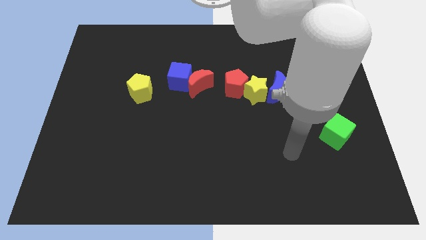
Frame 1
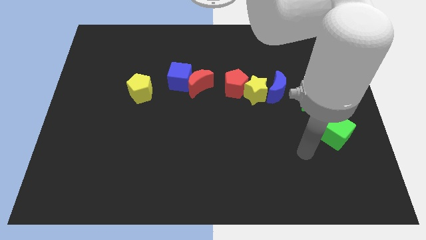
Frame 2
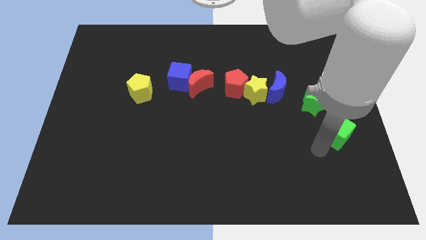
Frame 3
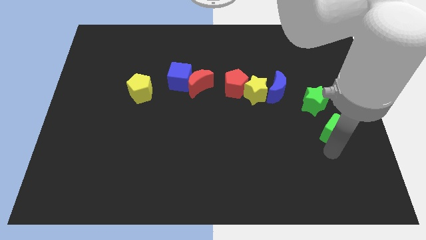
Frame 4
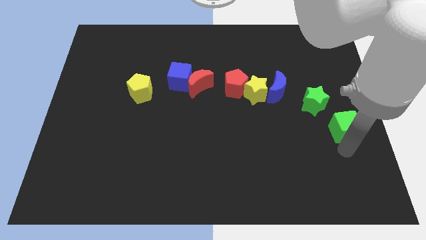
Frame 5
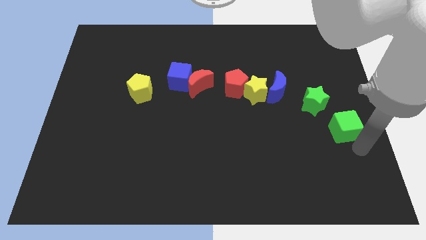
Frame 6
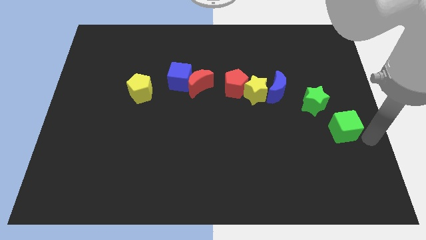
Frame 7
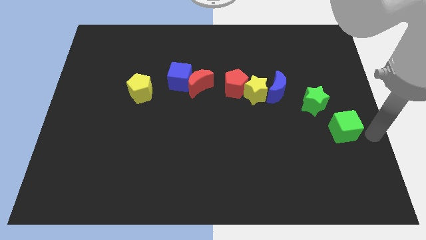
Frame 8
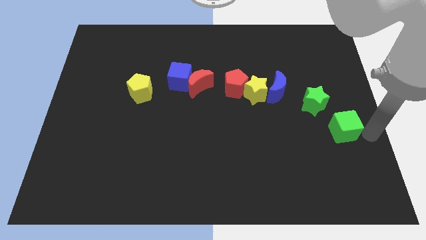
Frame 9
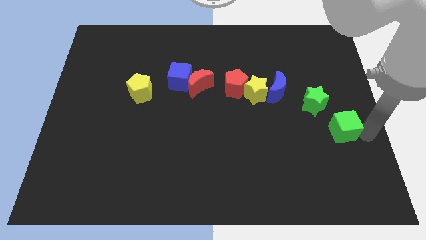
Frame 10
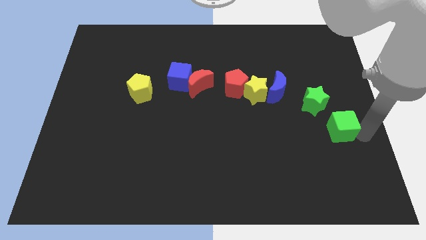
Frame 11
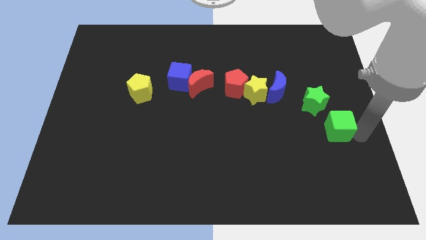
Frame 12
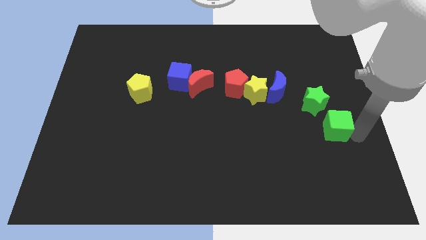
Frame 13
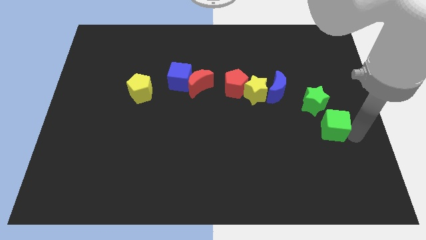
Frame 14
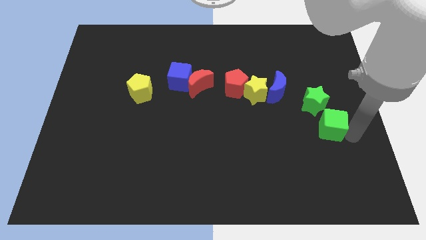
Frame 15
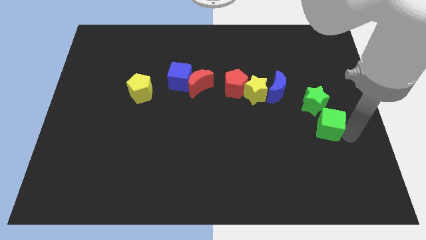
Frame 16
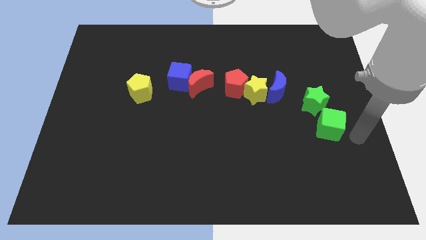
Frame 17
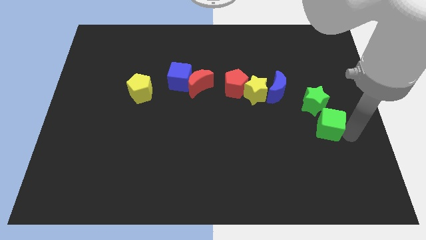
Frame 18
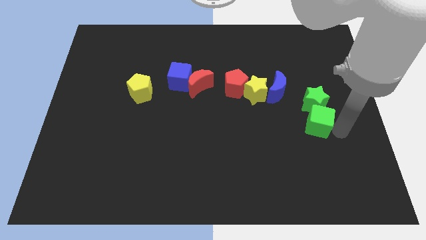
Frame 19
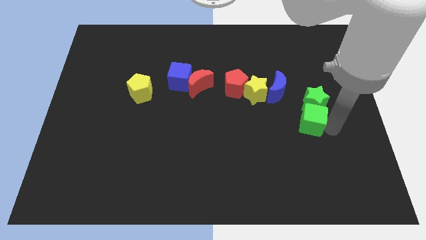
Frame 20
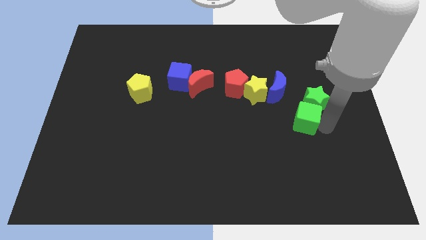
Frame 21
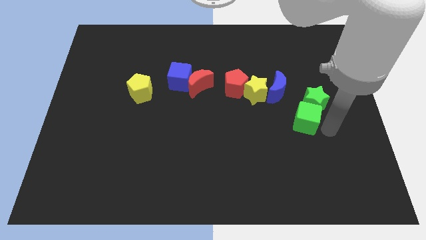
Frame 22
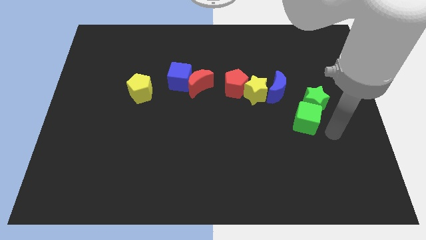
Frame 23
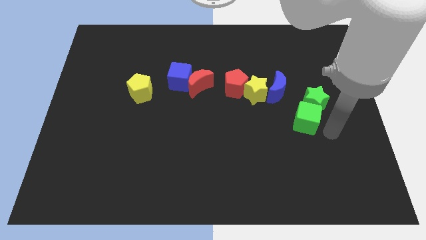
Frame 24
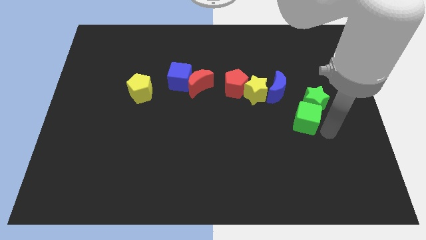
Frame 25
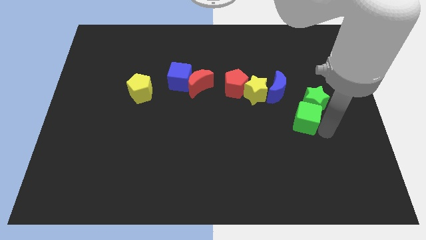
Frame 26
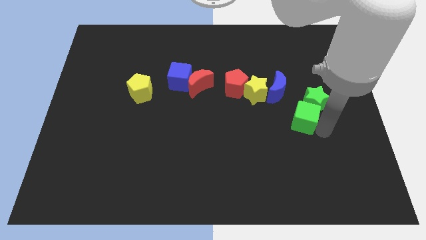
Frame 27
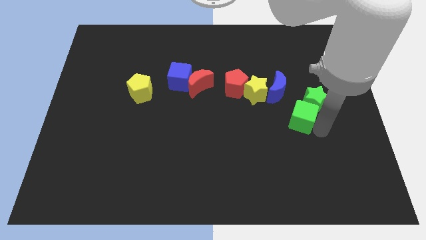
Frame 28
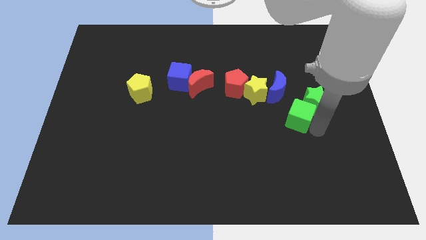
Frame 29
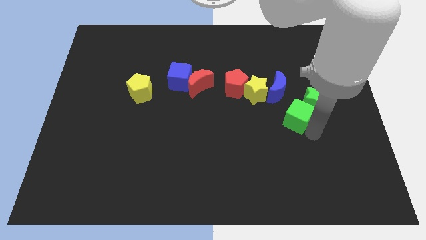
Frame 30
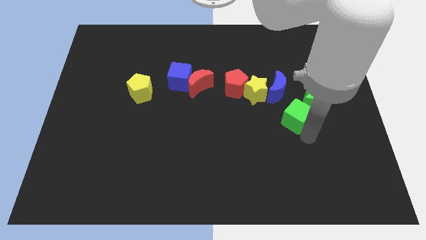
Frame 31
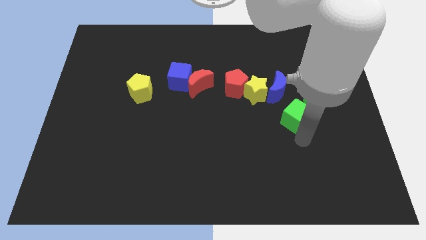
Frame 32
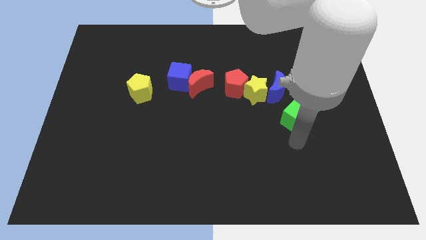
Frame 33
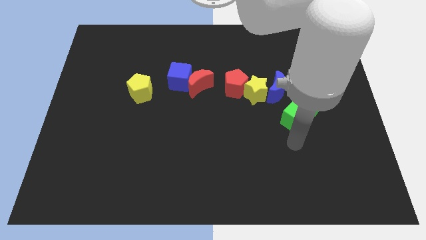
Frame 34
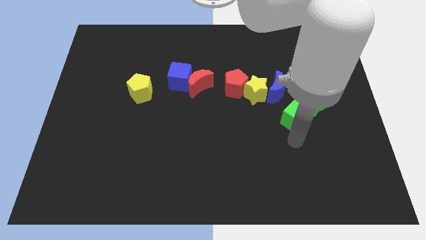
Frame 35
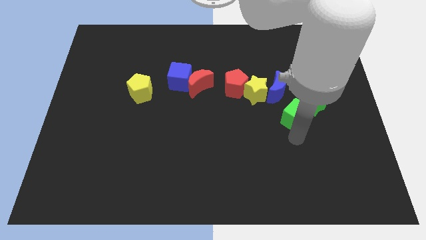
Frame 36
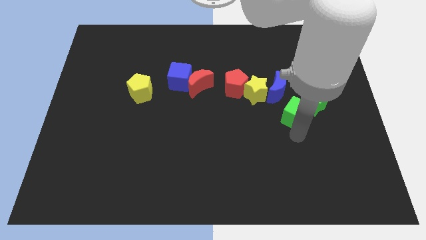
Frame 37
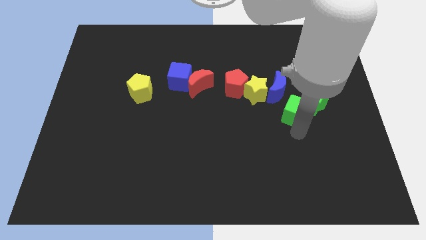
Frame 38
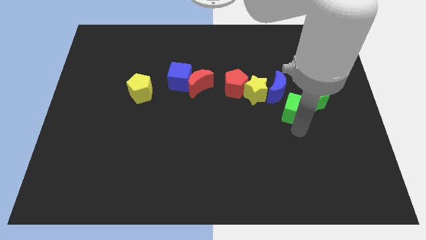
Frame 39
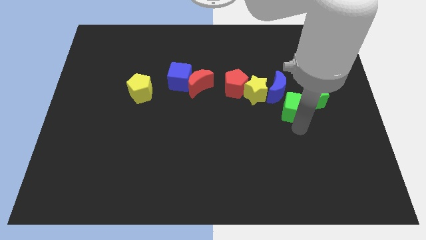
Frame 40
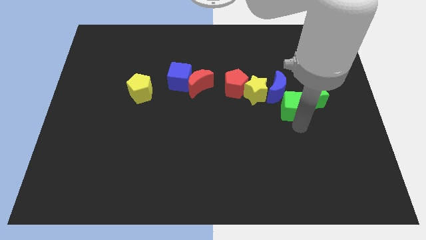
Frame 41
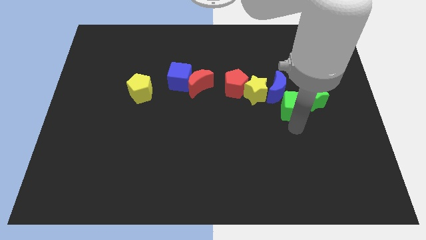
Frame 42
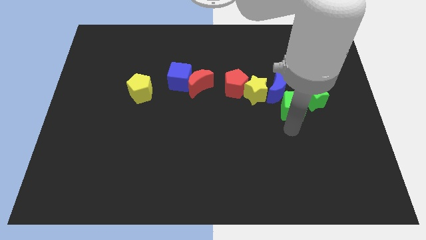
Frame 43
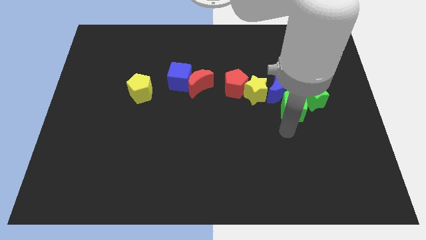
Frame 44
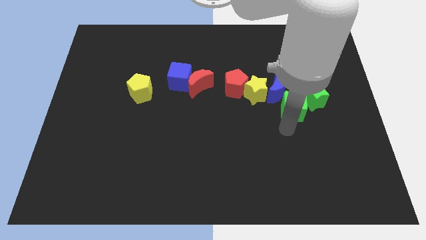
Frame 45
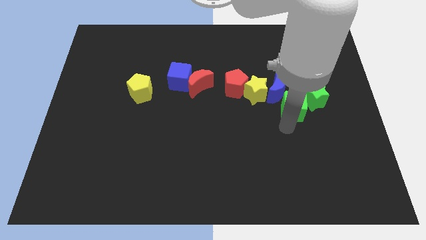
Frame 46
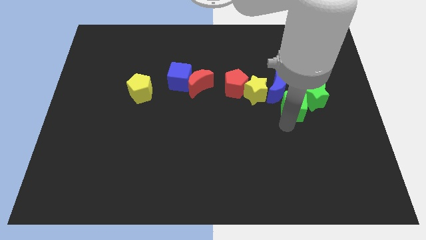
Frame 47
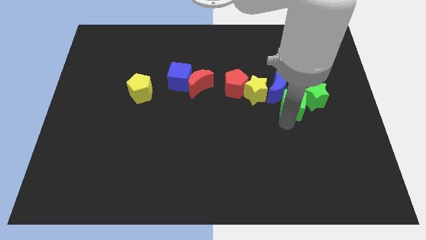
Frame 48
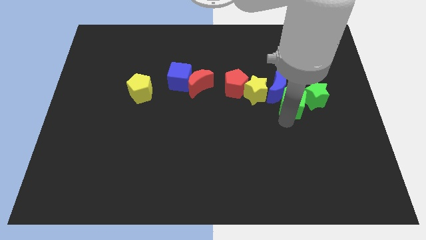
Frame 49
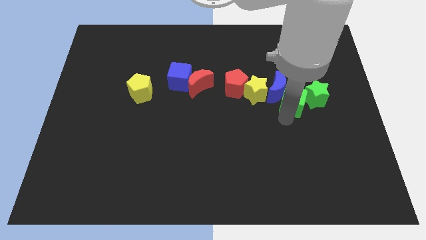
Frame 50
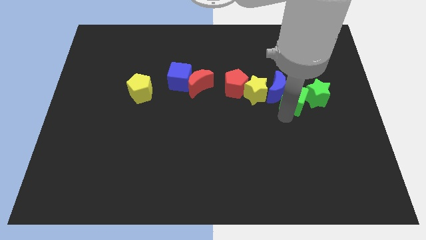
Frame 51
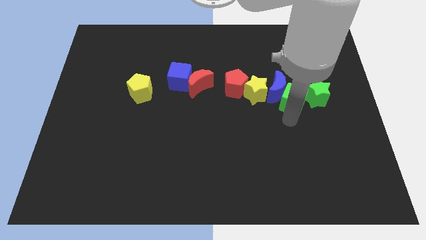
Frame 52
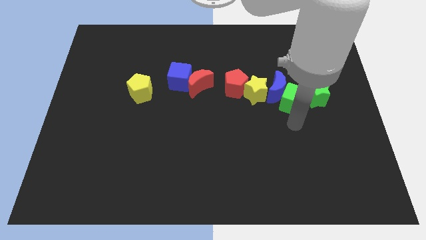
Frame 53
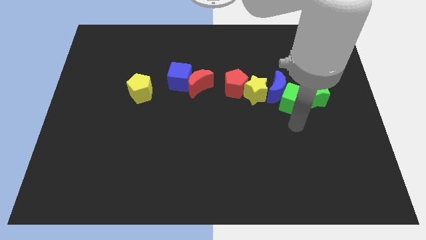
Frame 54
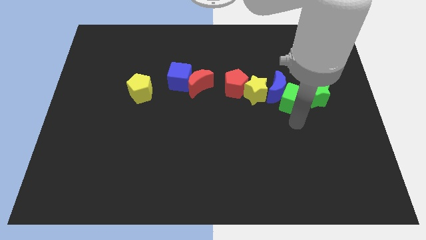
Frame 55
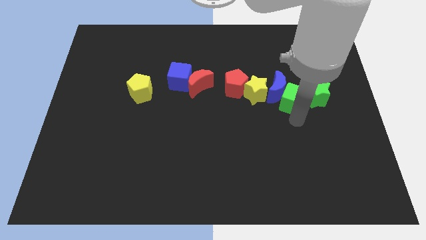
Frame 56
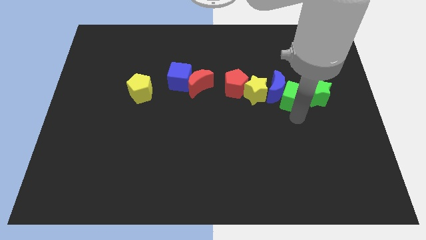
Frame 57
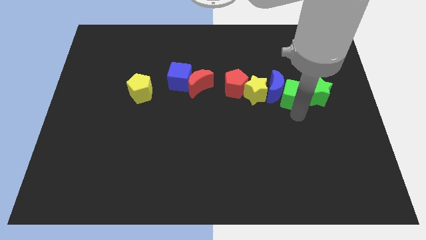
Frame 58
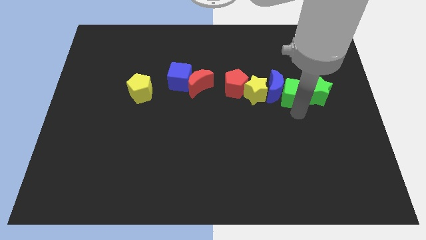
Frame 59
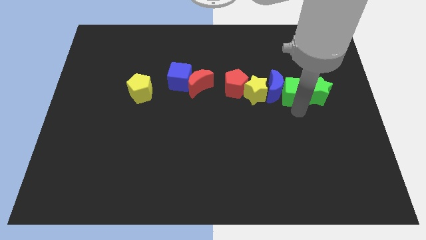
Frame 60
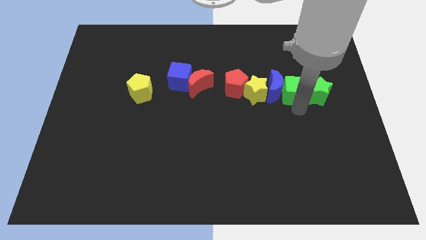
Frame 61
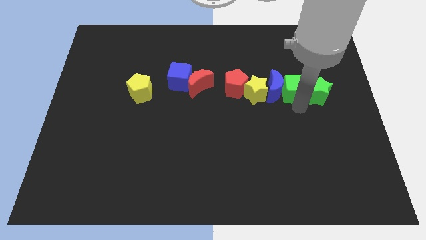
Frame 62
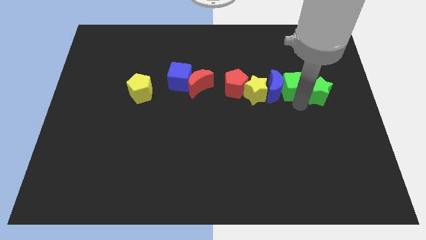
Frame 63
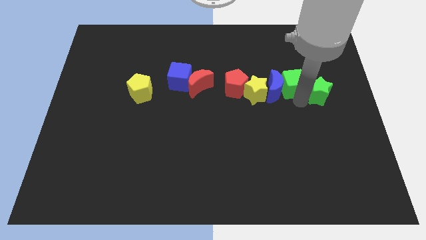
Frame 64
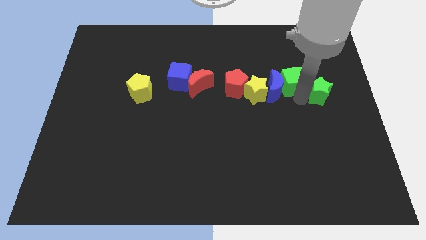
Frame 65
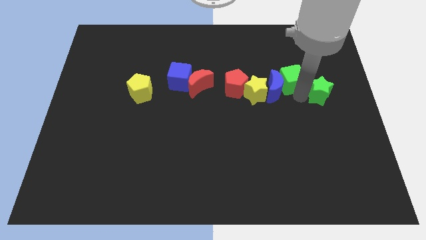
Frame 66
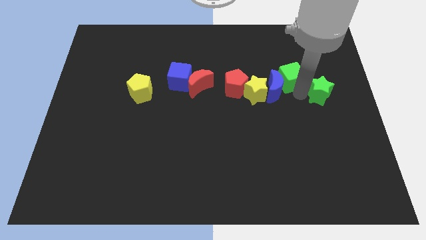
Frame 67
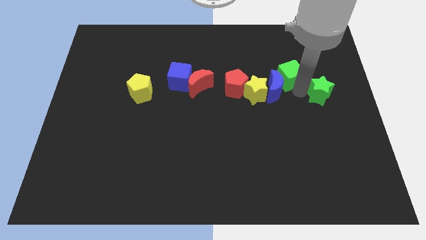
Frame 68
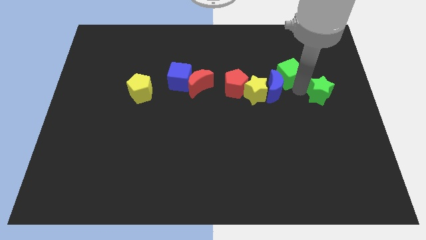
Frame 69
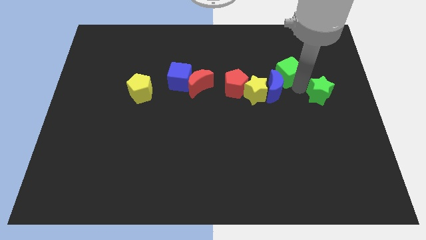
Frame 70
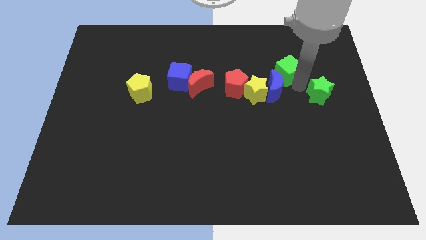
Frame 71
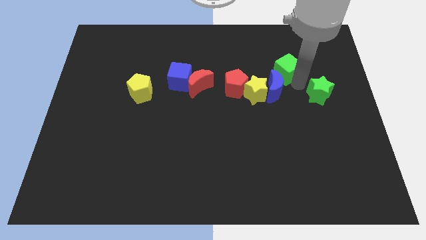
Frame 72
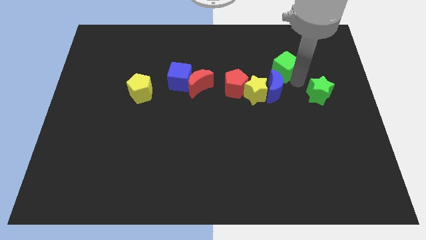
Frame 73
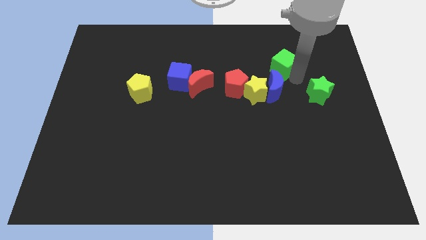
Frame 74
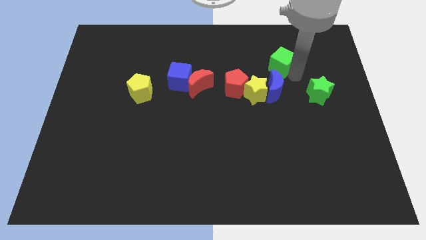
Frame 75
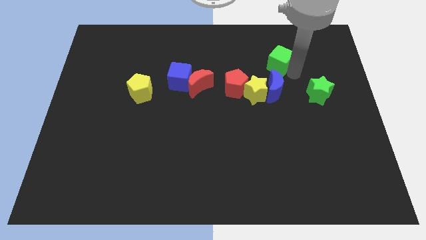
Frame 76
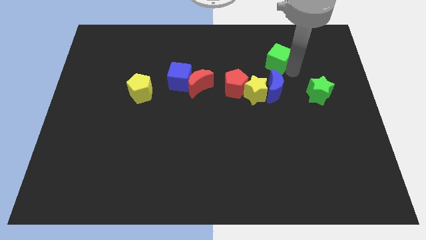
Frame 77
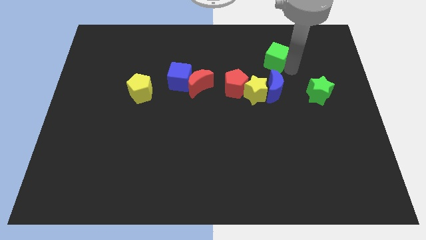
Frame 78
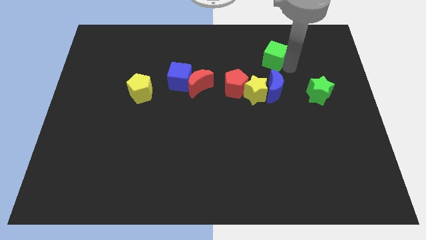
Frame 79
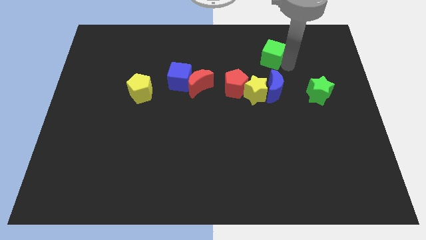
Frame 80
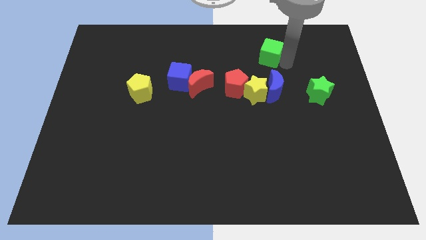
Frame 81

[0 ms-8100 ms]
slide the green cube to the top of the yellow star
